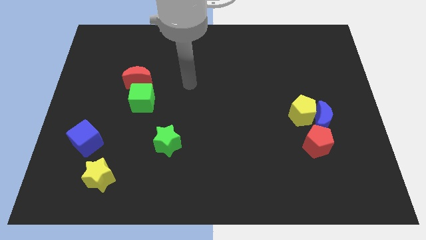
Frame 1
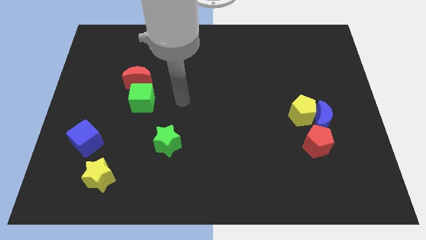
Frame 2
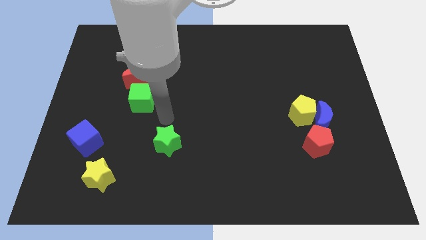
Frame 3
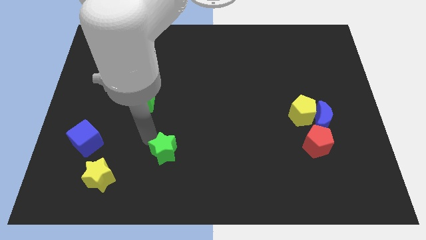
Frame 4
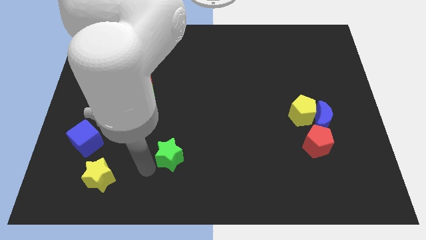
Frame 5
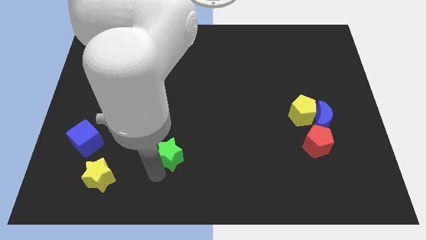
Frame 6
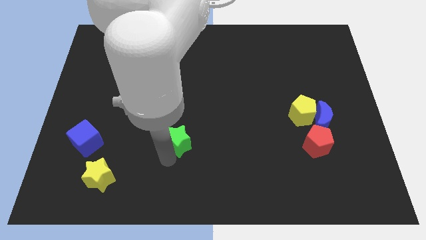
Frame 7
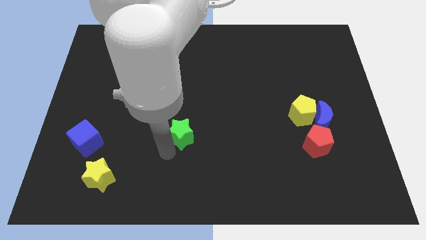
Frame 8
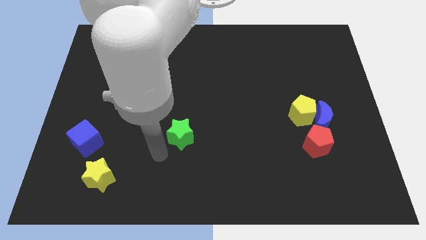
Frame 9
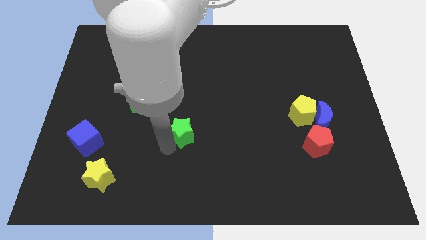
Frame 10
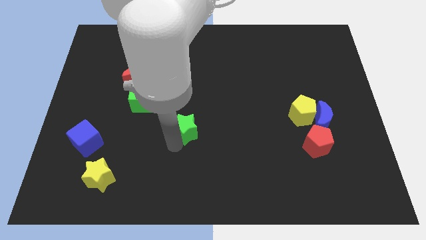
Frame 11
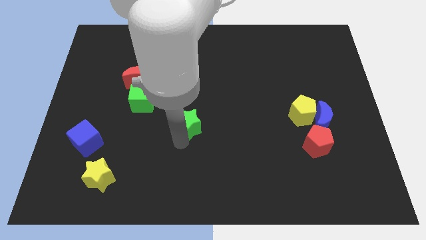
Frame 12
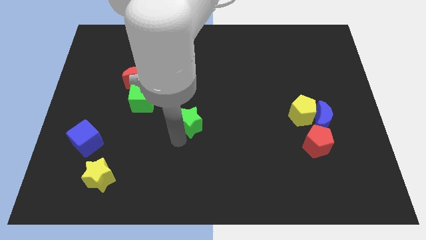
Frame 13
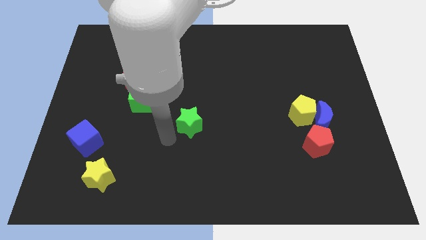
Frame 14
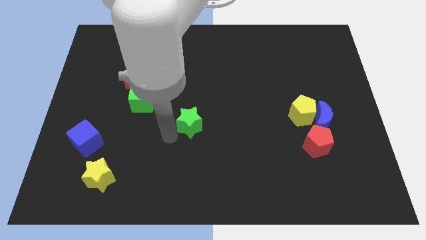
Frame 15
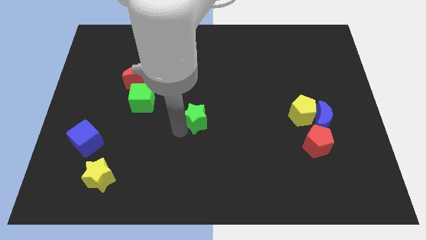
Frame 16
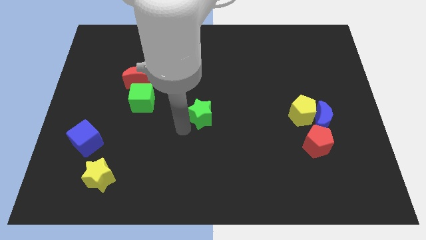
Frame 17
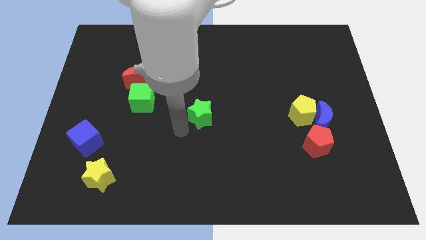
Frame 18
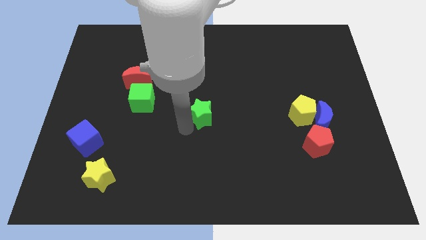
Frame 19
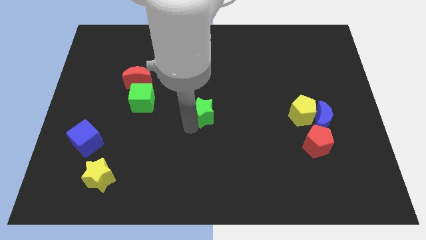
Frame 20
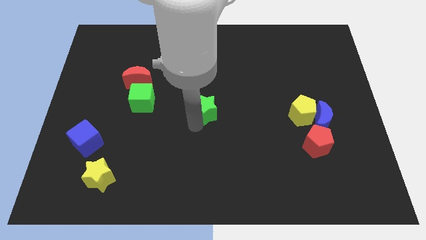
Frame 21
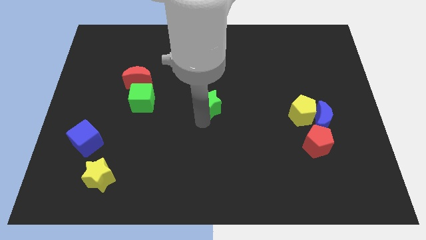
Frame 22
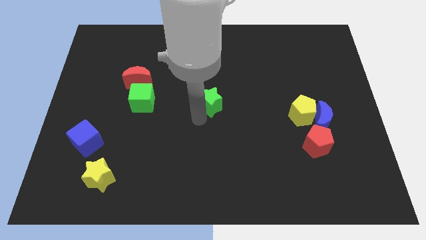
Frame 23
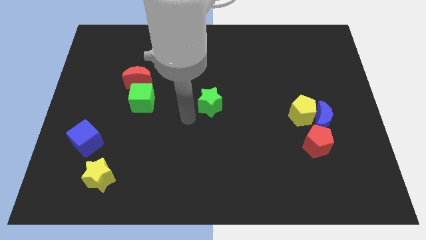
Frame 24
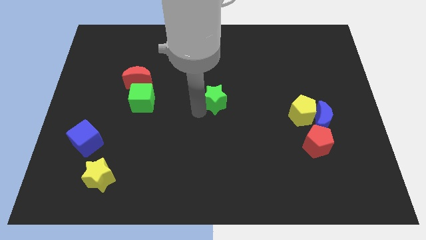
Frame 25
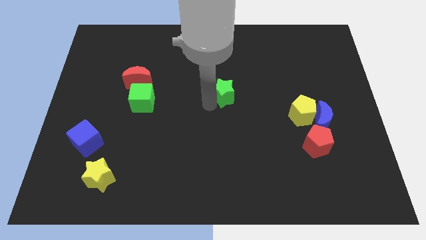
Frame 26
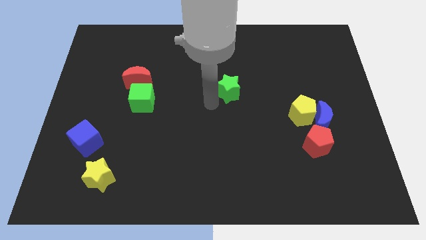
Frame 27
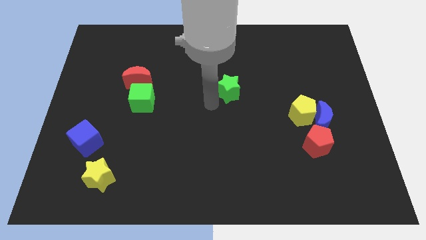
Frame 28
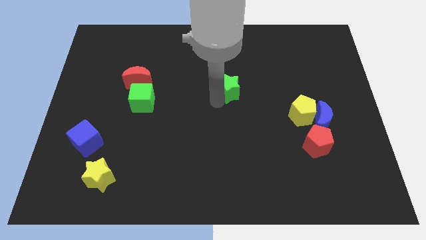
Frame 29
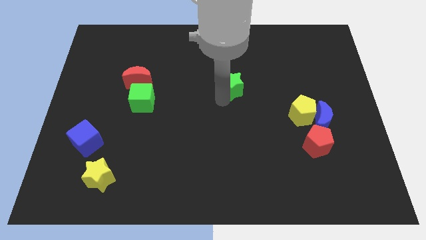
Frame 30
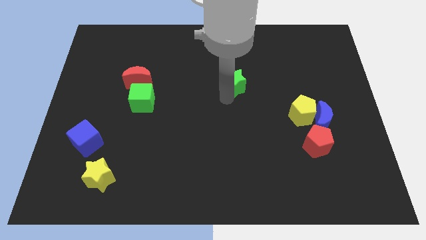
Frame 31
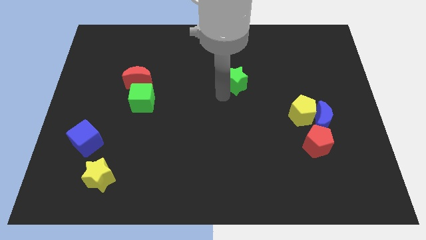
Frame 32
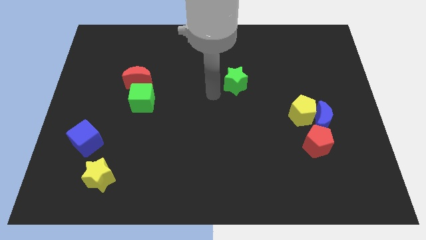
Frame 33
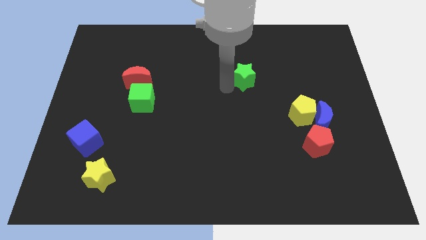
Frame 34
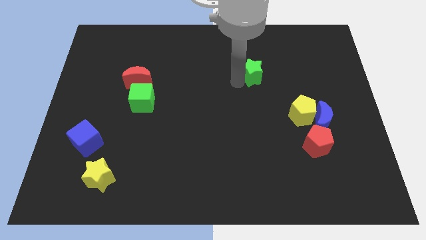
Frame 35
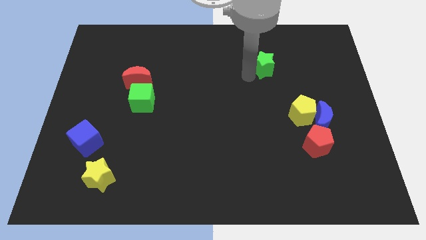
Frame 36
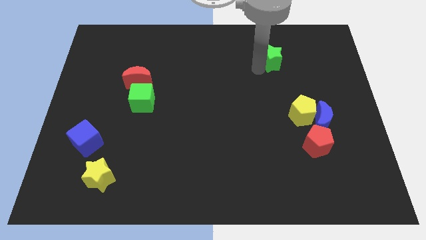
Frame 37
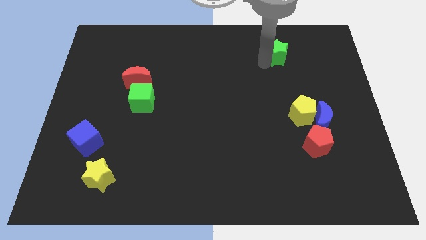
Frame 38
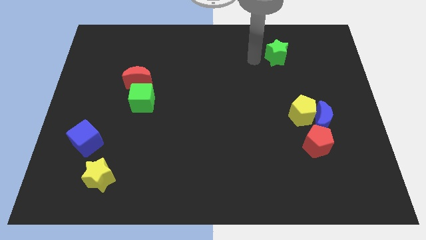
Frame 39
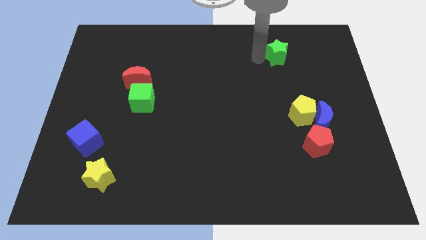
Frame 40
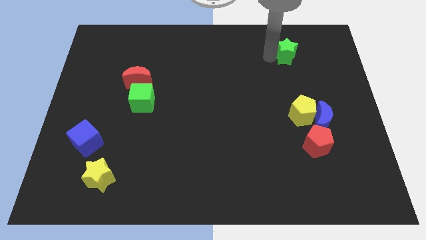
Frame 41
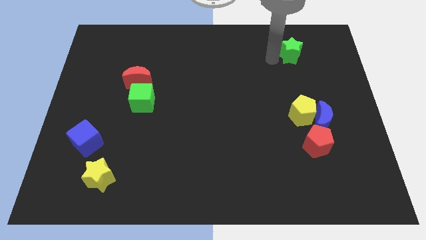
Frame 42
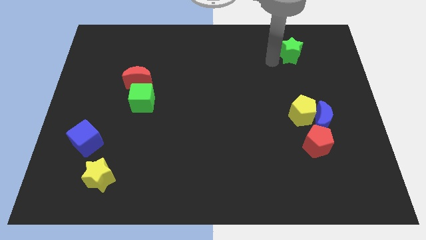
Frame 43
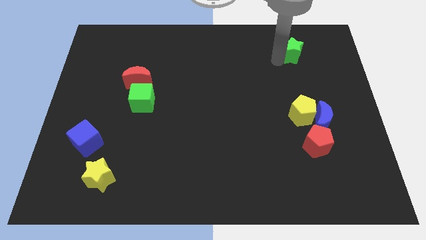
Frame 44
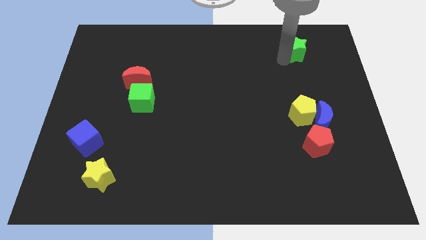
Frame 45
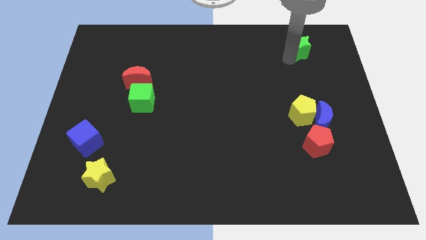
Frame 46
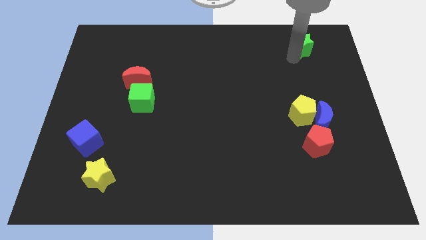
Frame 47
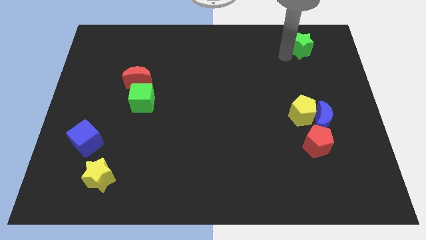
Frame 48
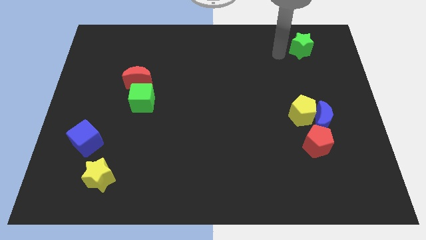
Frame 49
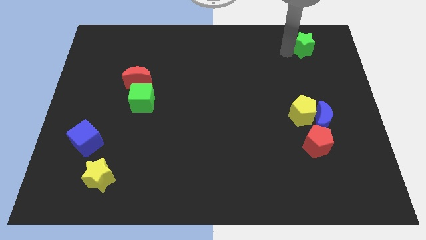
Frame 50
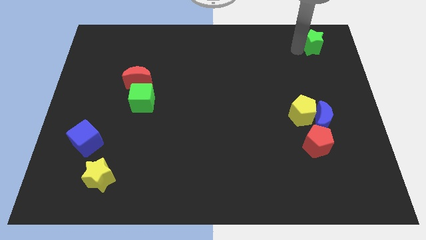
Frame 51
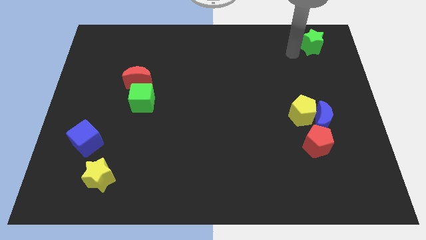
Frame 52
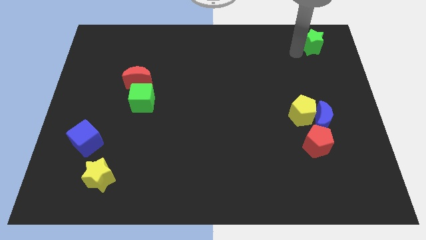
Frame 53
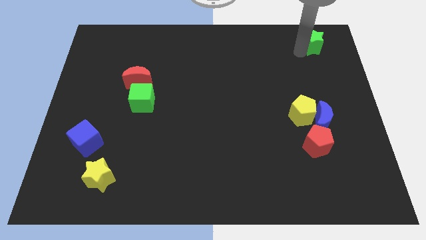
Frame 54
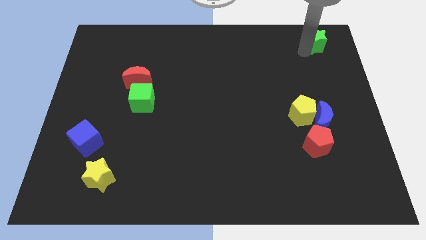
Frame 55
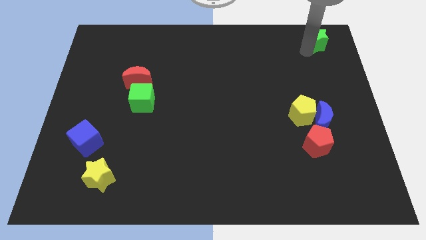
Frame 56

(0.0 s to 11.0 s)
push the green star to the top right of the board
